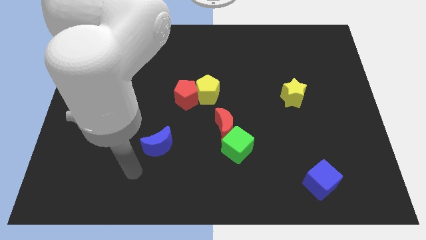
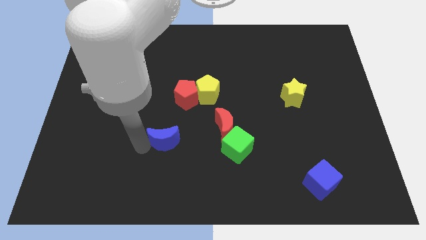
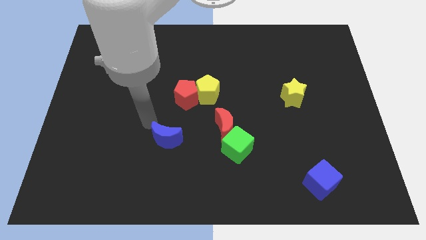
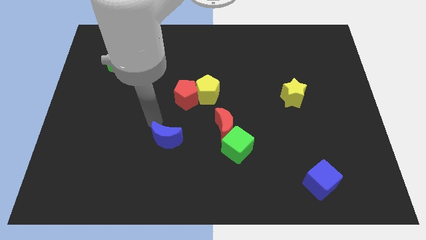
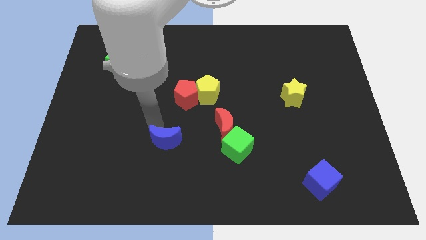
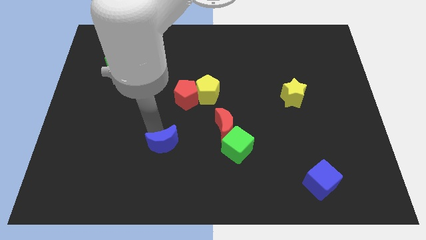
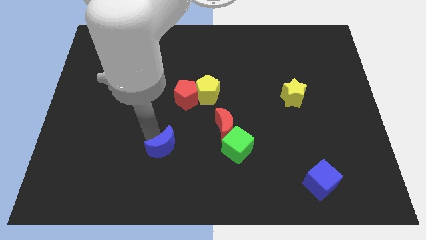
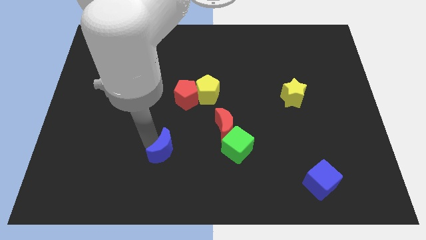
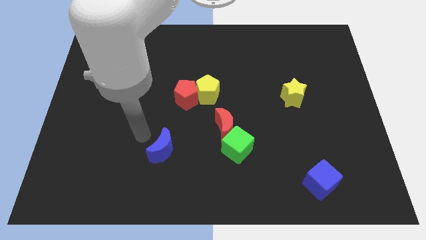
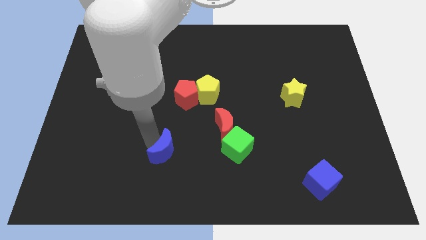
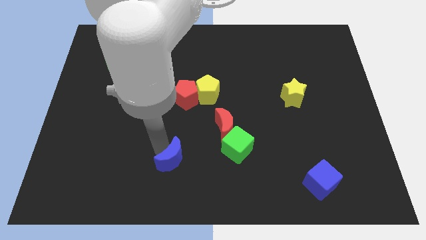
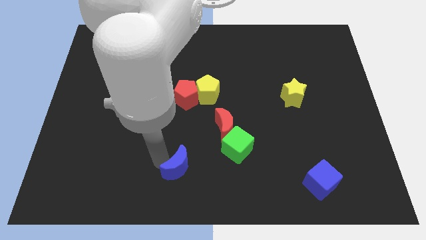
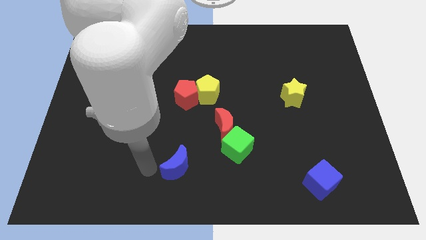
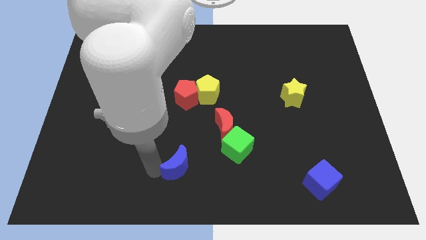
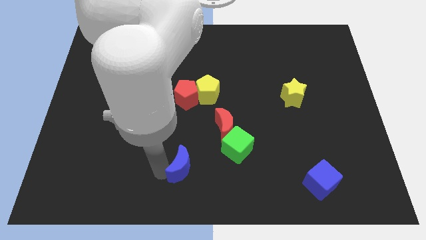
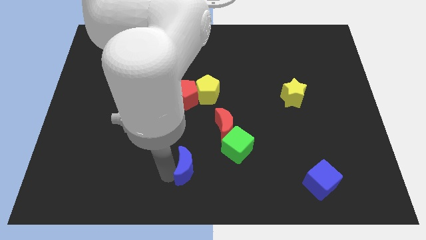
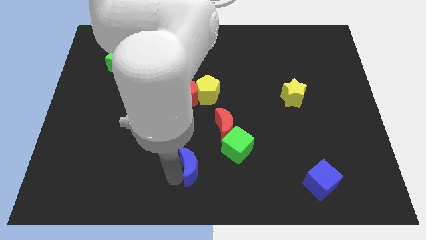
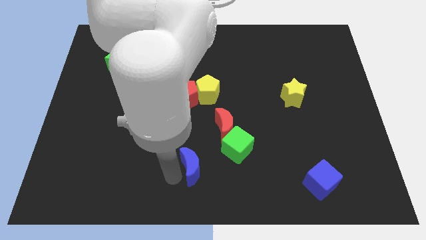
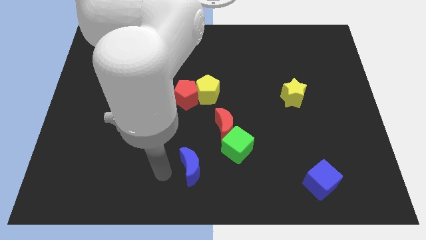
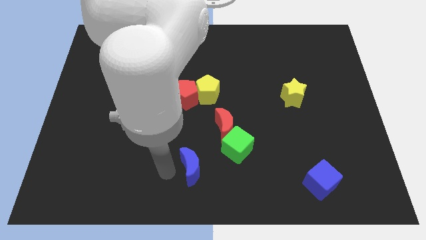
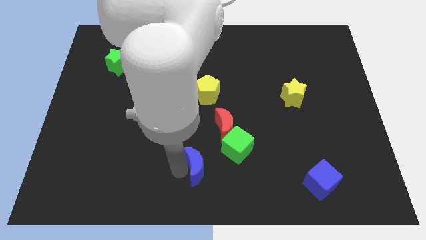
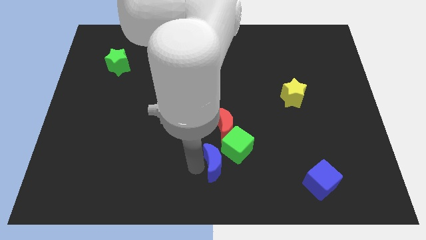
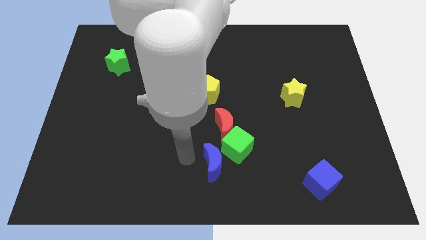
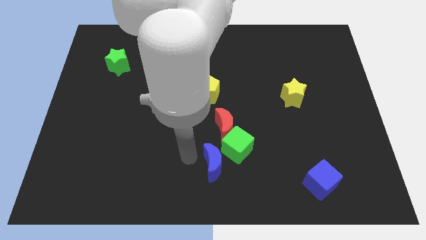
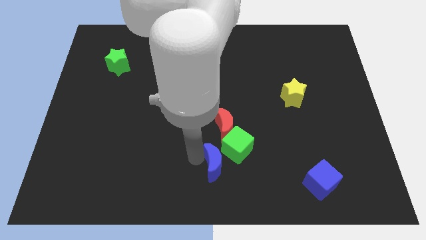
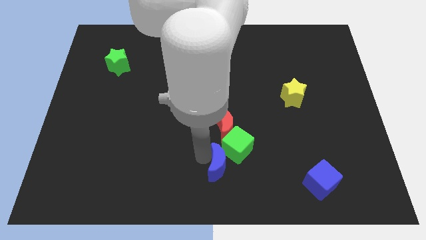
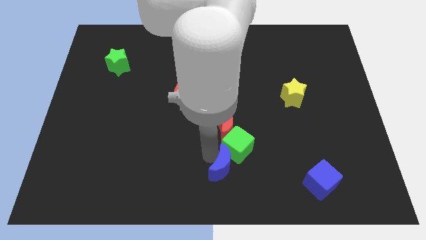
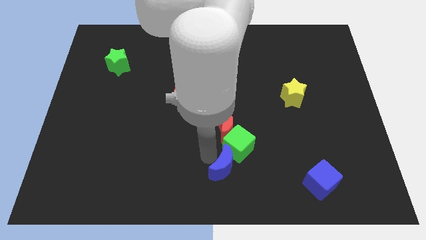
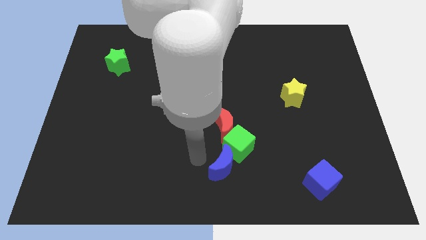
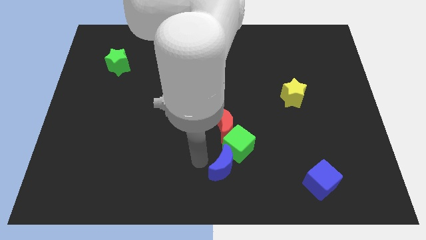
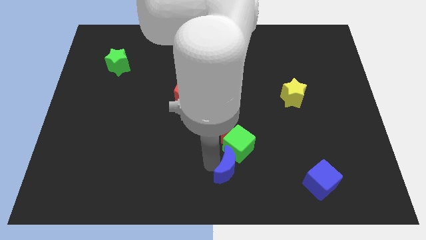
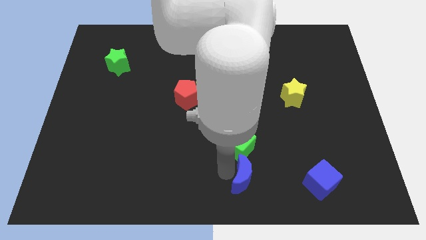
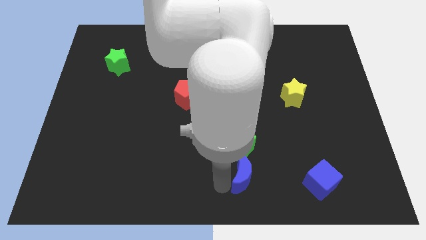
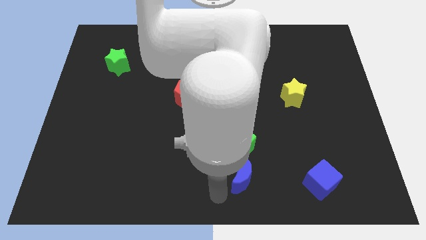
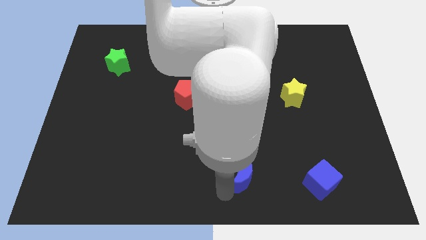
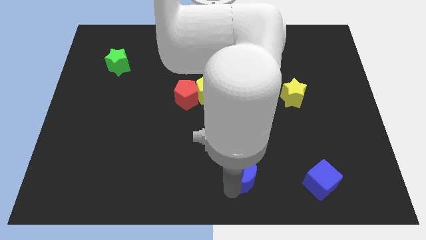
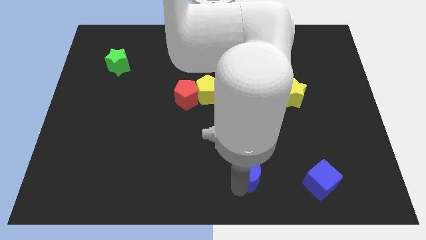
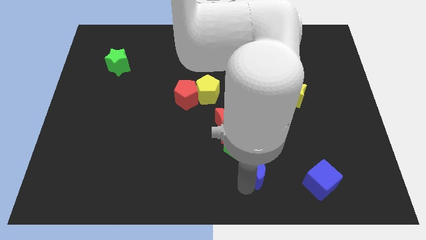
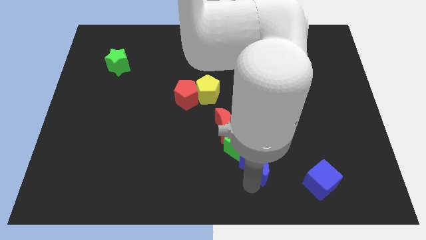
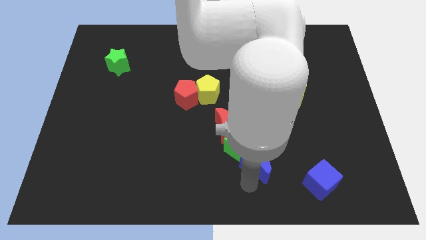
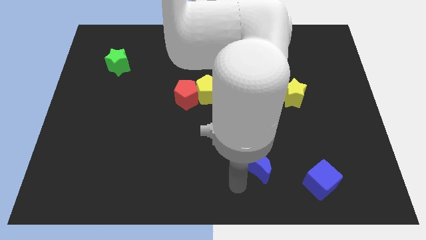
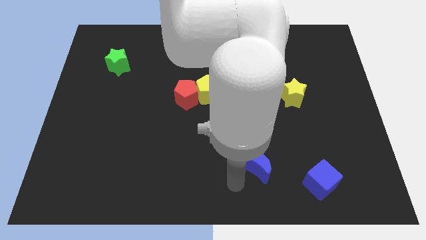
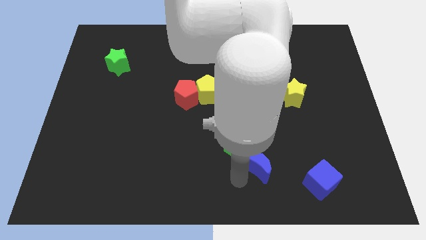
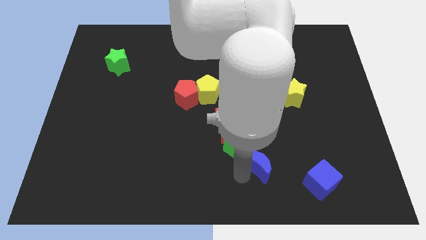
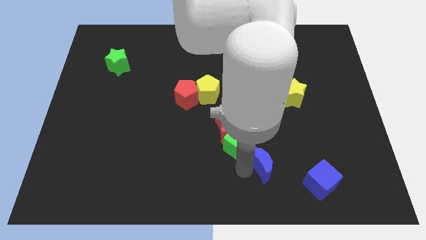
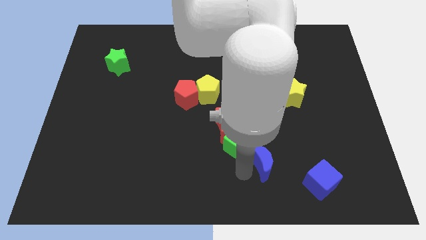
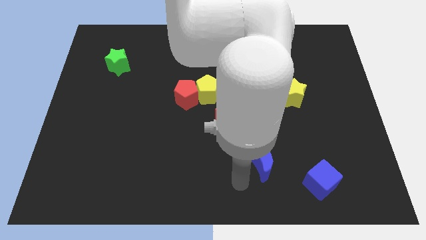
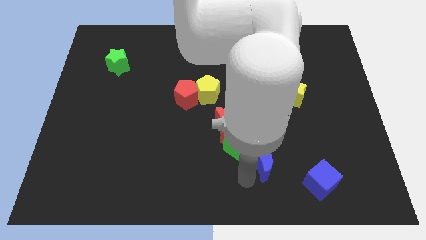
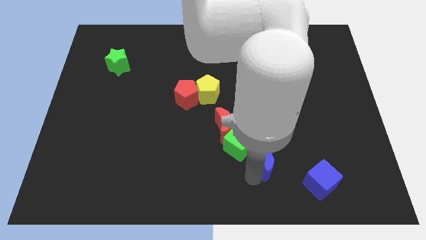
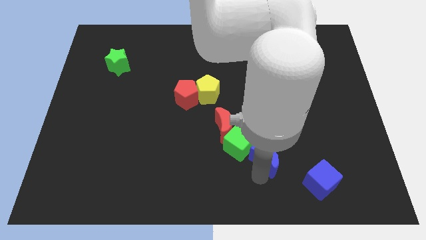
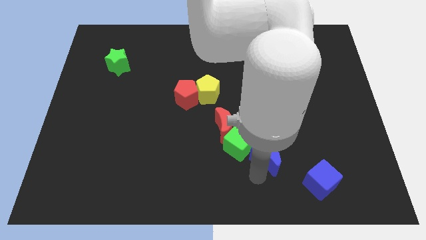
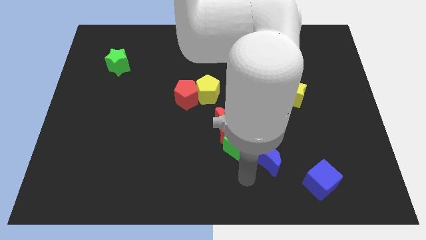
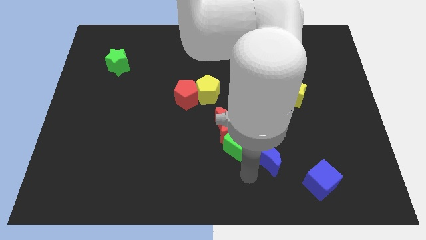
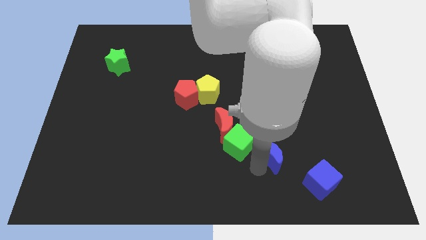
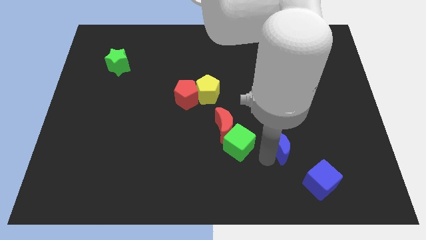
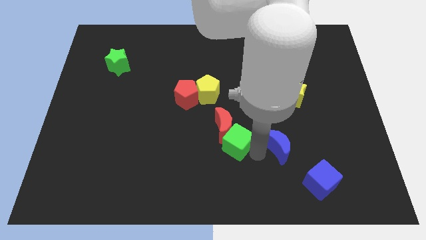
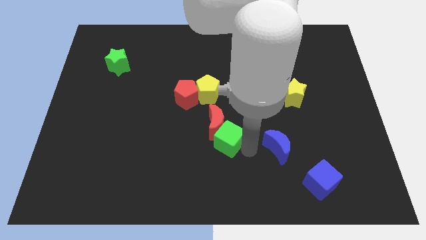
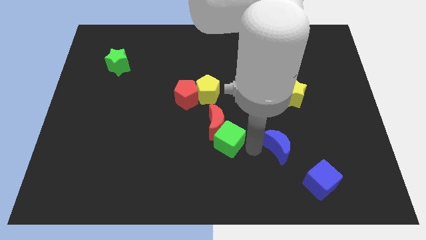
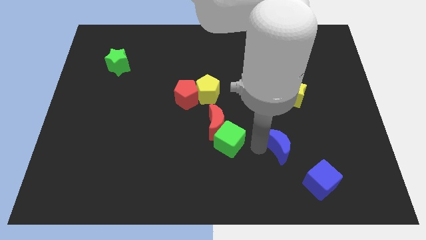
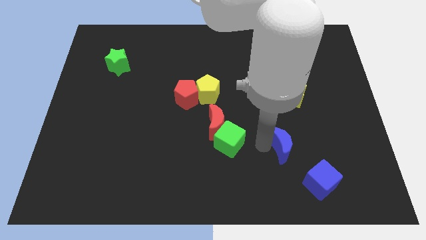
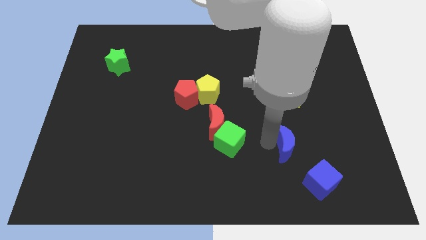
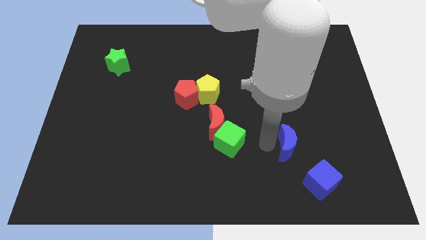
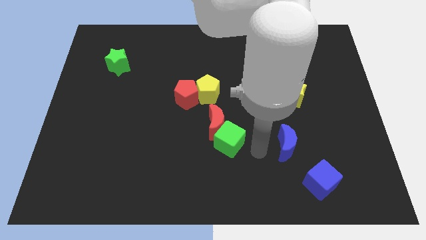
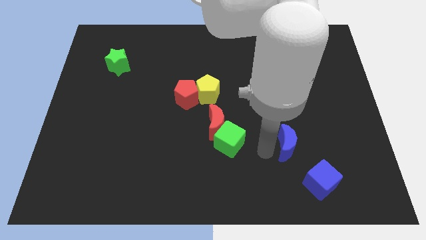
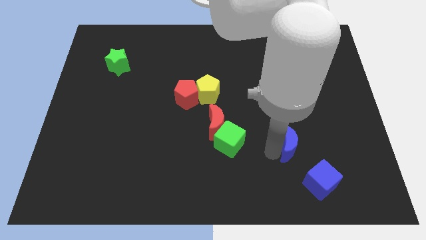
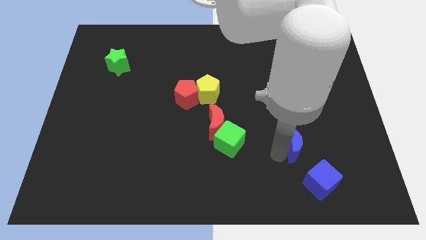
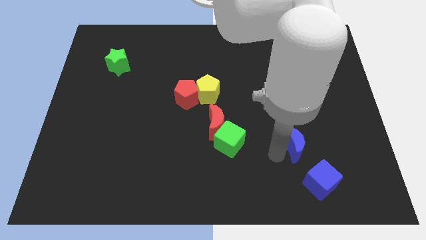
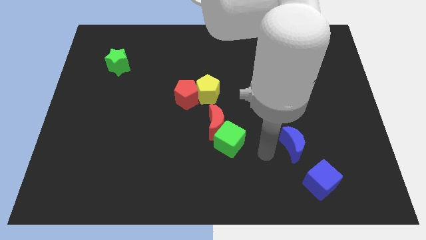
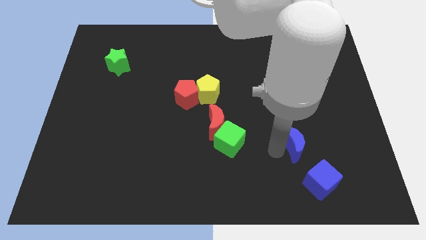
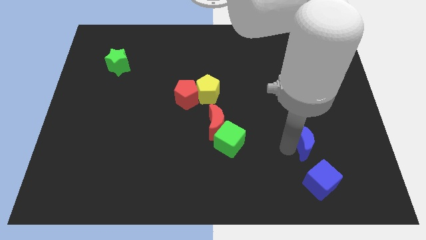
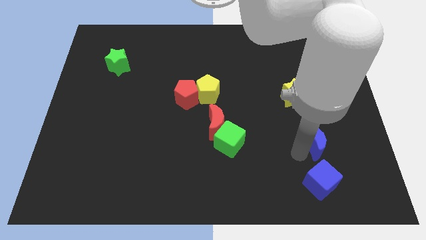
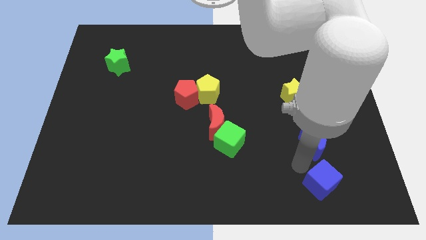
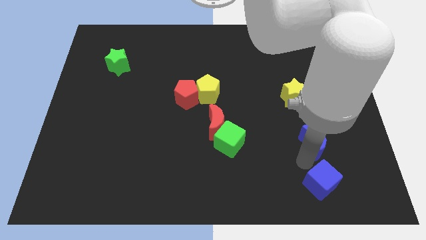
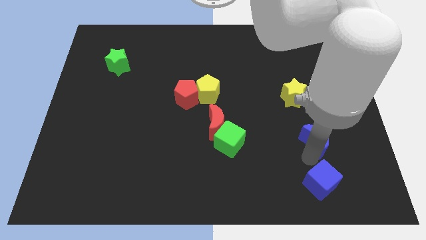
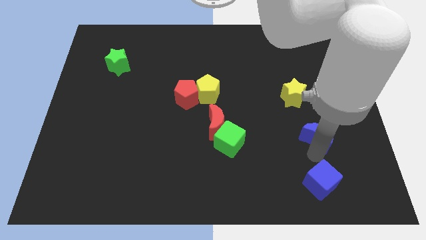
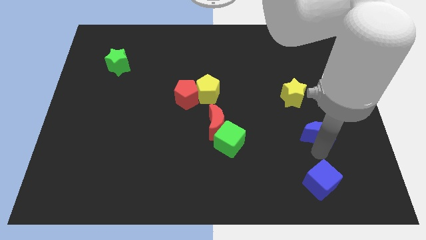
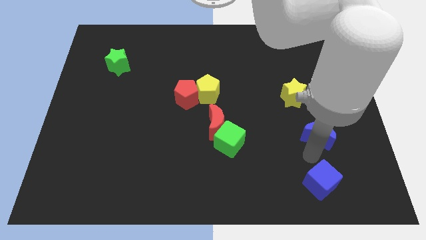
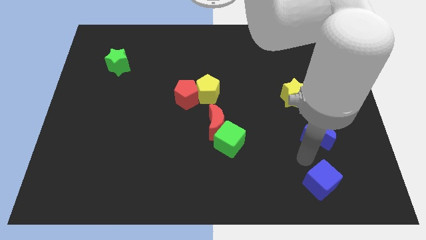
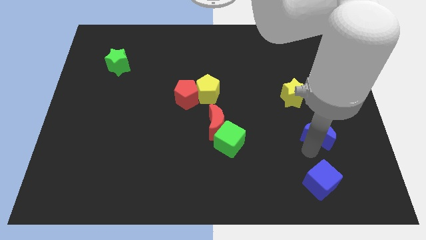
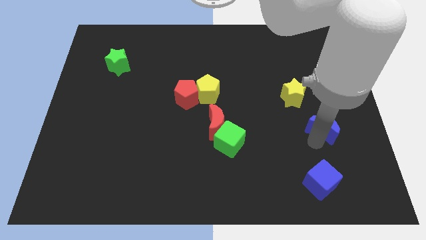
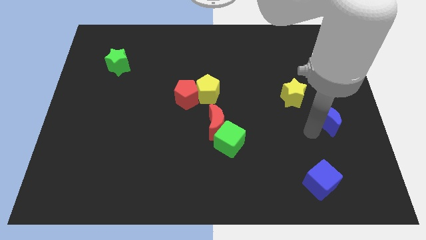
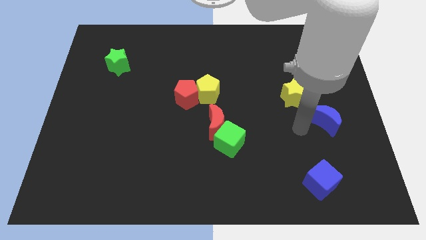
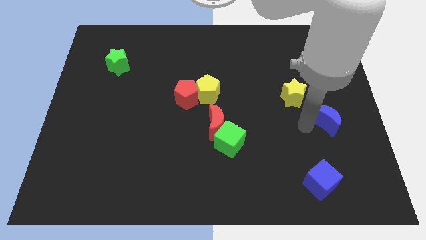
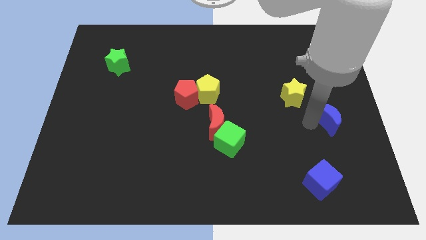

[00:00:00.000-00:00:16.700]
put the blue moon to the center right
